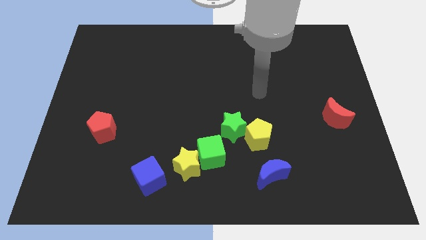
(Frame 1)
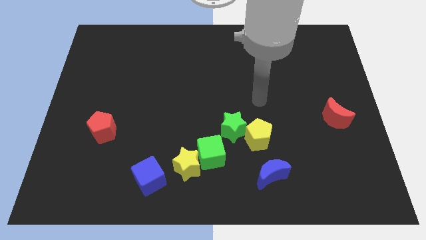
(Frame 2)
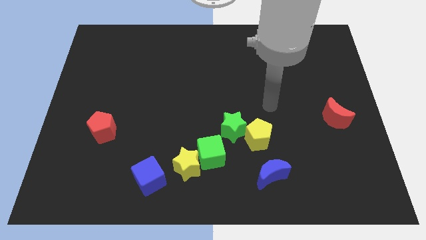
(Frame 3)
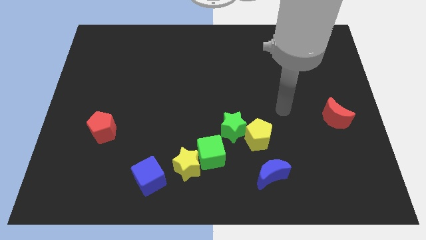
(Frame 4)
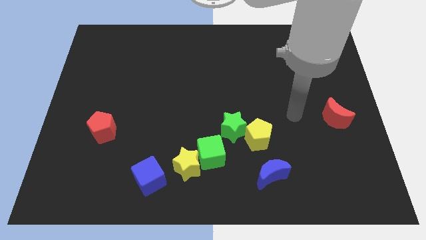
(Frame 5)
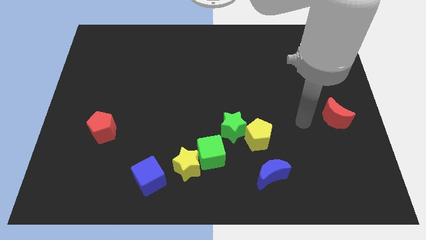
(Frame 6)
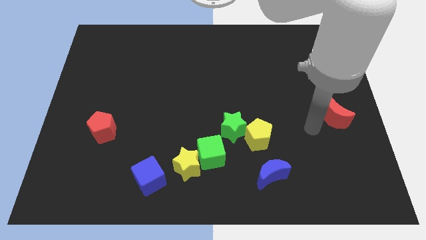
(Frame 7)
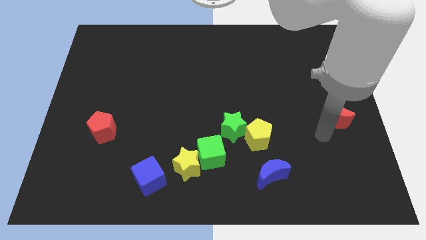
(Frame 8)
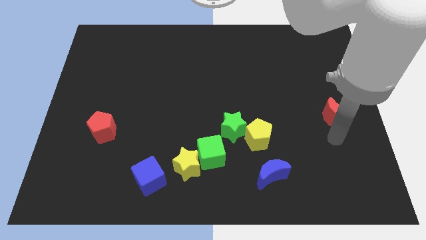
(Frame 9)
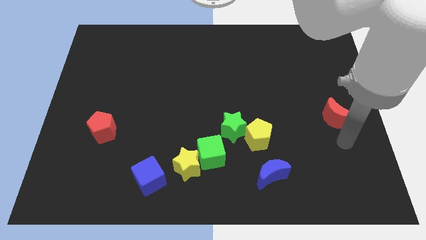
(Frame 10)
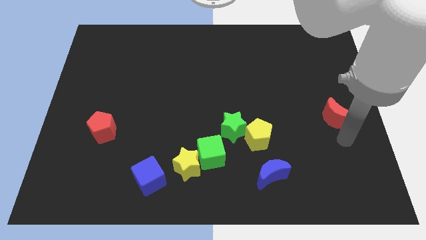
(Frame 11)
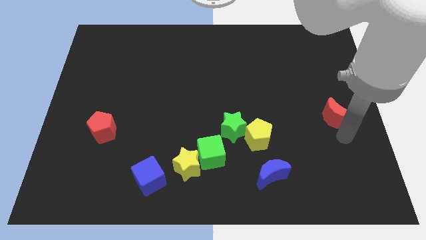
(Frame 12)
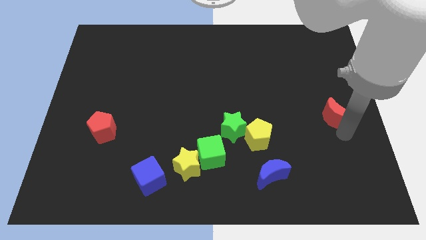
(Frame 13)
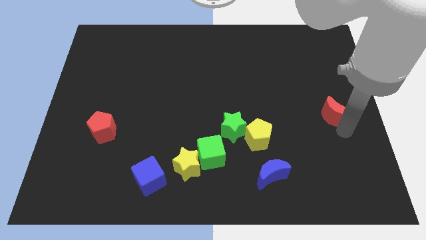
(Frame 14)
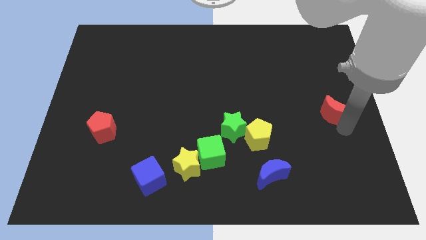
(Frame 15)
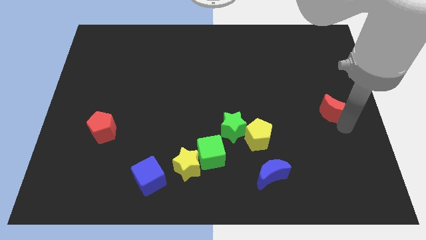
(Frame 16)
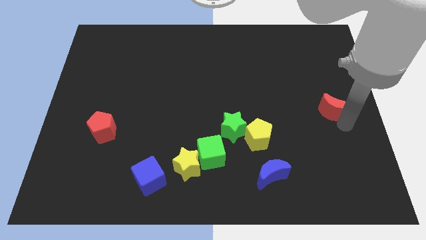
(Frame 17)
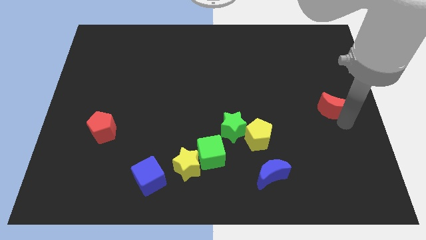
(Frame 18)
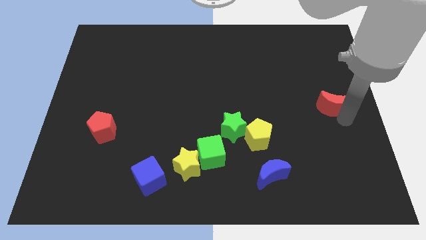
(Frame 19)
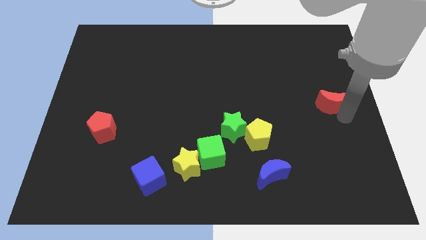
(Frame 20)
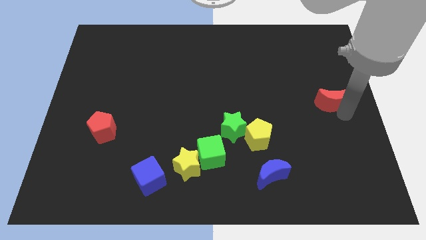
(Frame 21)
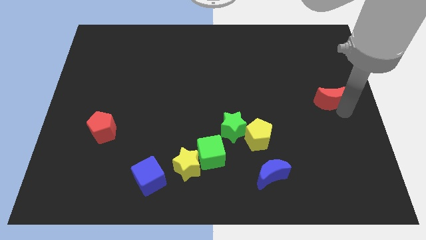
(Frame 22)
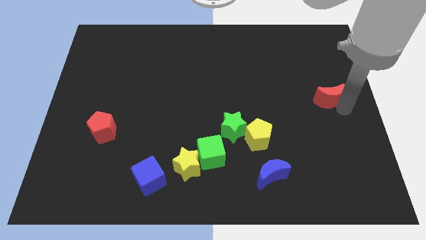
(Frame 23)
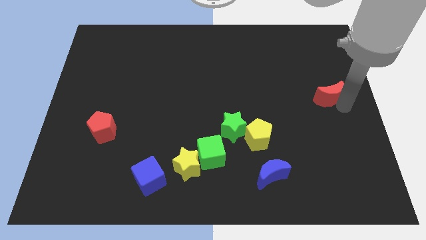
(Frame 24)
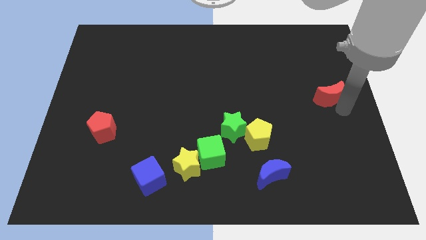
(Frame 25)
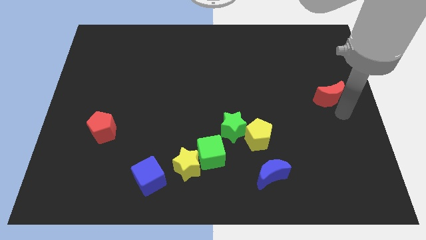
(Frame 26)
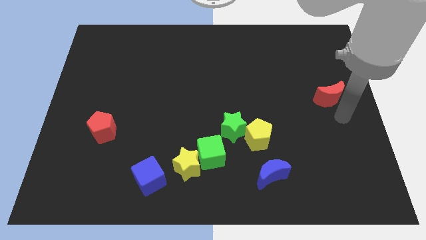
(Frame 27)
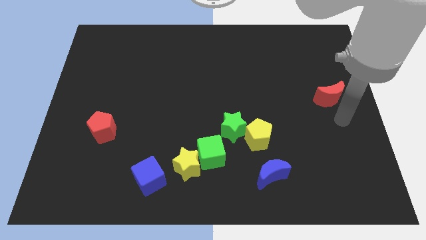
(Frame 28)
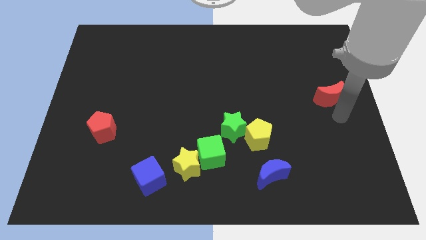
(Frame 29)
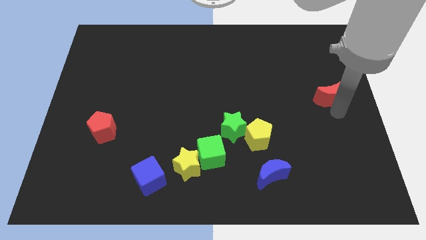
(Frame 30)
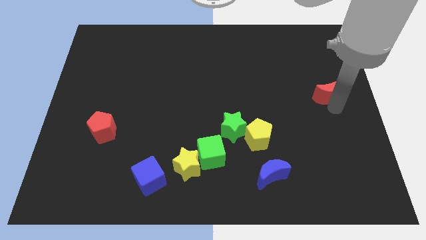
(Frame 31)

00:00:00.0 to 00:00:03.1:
slightly move the red moon up

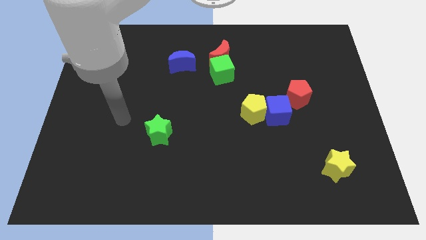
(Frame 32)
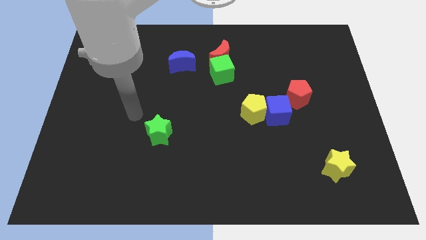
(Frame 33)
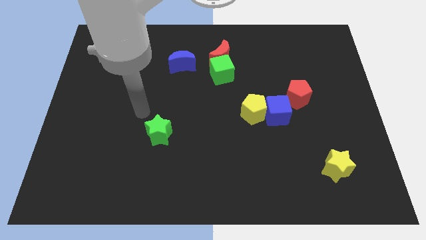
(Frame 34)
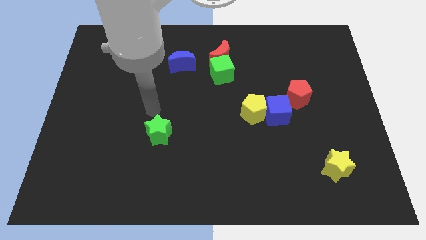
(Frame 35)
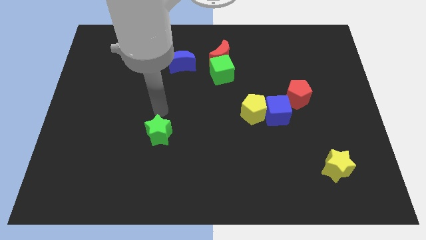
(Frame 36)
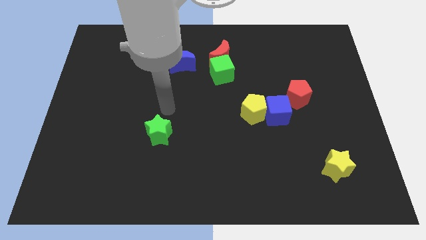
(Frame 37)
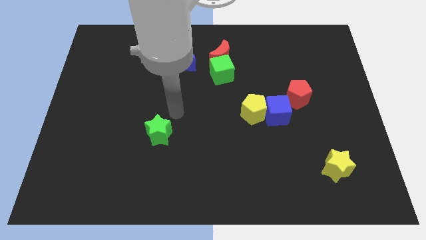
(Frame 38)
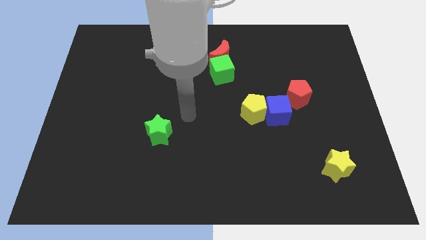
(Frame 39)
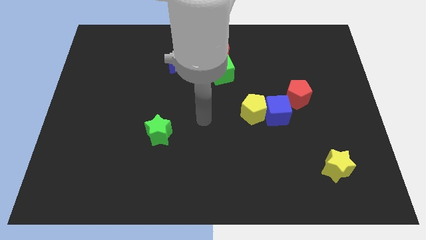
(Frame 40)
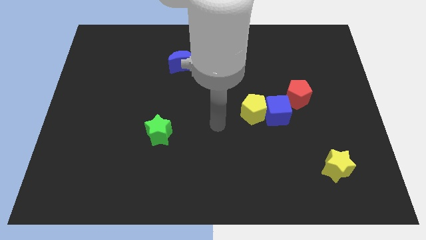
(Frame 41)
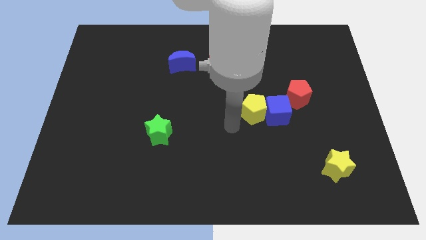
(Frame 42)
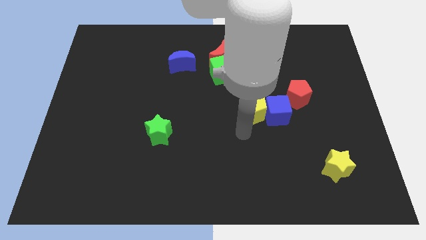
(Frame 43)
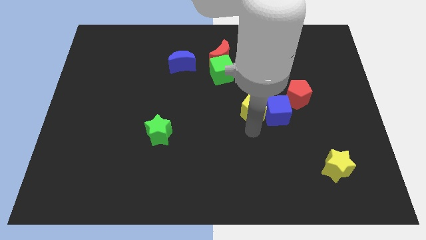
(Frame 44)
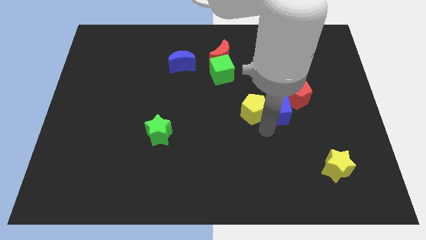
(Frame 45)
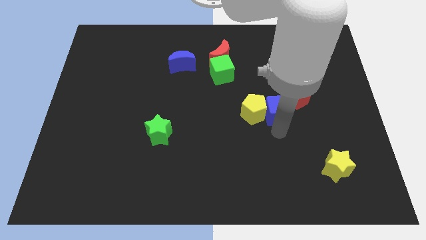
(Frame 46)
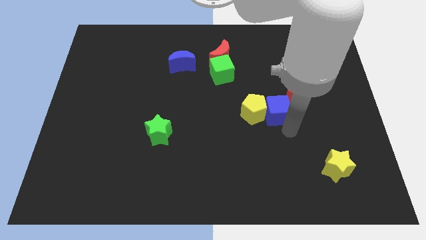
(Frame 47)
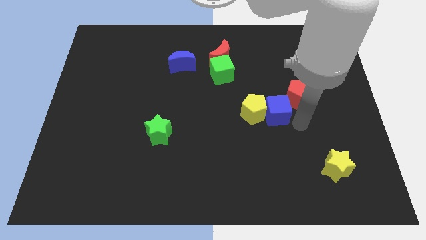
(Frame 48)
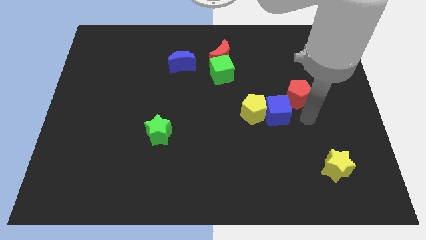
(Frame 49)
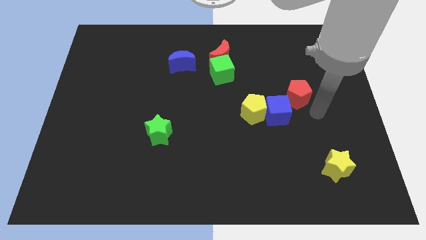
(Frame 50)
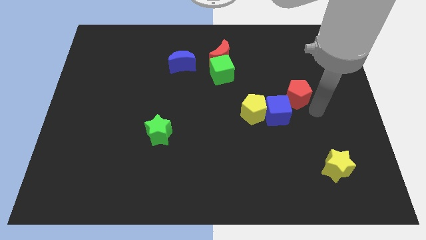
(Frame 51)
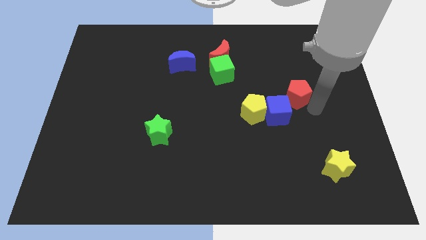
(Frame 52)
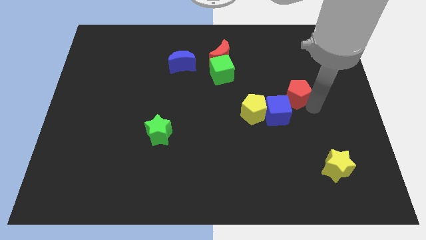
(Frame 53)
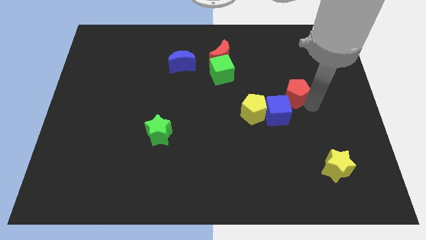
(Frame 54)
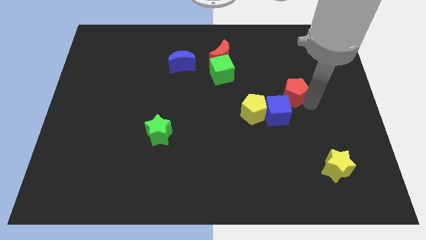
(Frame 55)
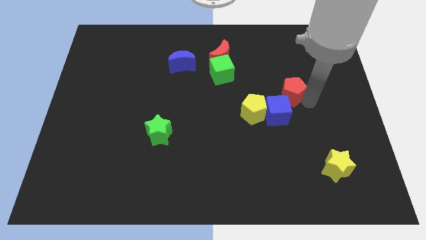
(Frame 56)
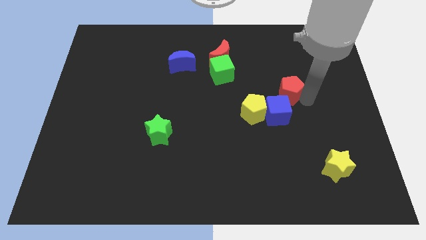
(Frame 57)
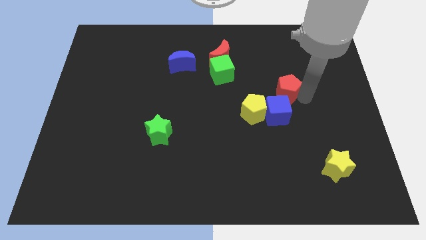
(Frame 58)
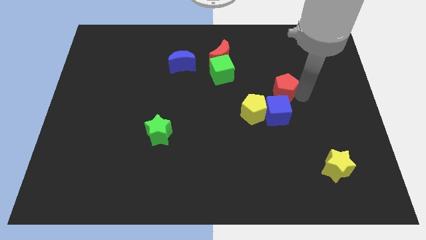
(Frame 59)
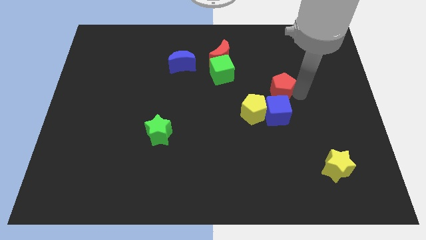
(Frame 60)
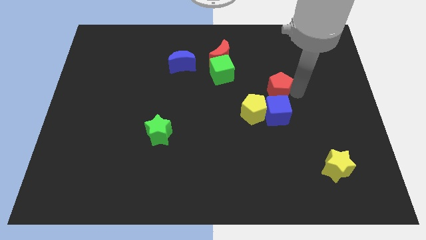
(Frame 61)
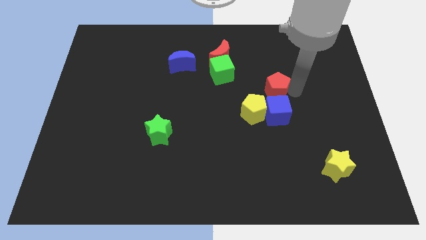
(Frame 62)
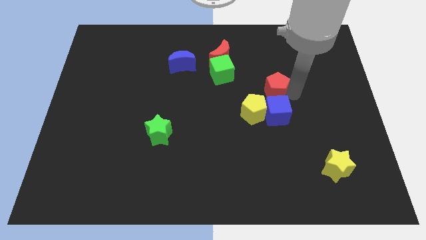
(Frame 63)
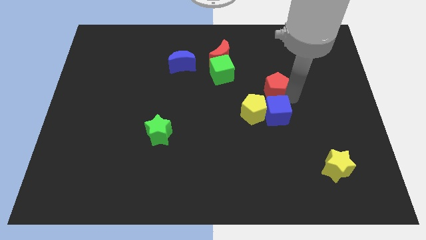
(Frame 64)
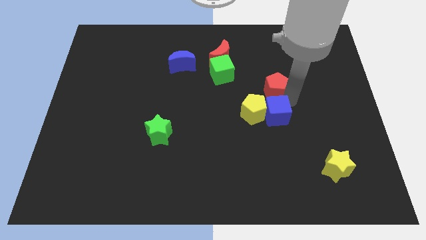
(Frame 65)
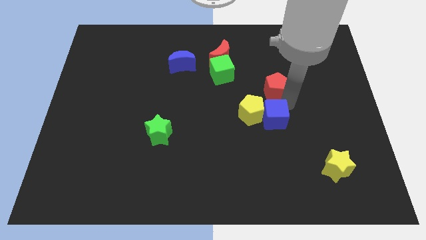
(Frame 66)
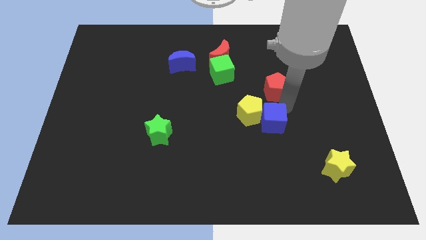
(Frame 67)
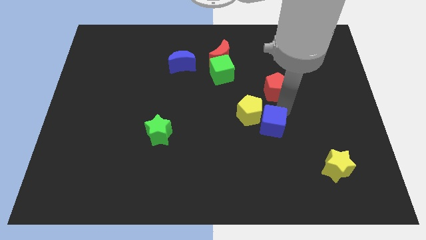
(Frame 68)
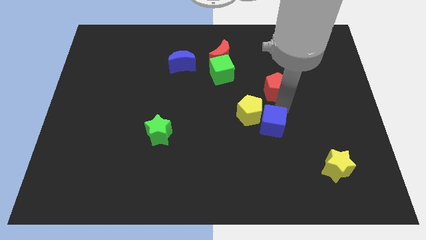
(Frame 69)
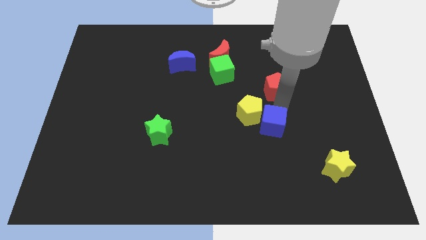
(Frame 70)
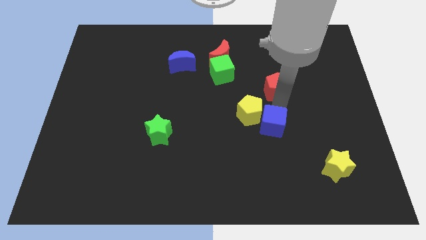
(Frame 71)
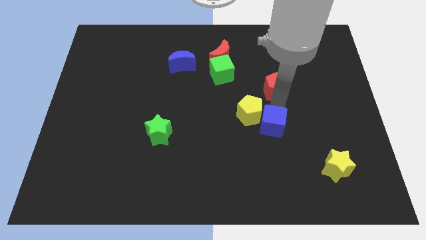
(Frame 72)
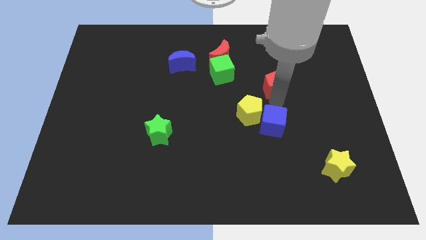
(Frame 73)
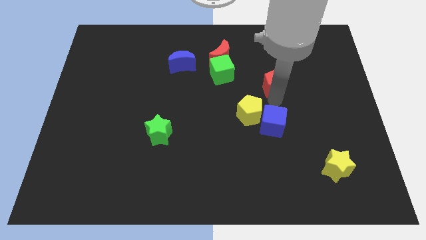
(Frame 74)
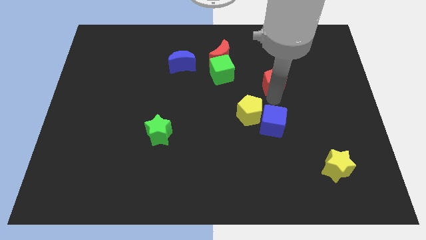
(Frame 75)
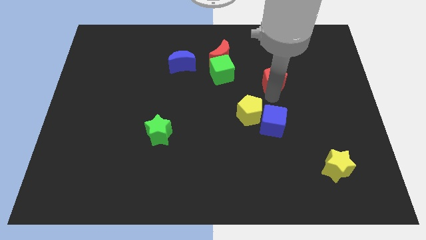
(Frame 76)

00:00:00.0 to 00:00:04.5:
push the red pentagon up and then to the left slightly

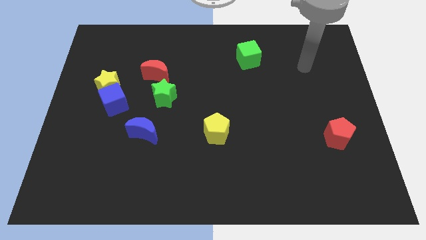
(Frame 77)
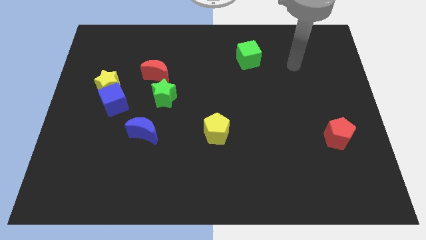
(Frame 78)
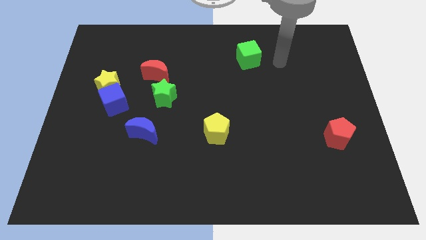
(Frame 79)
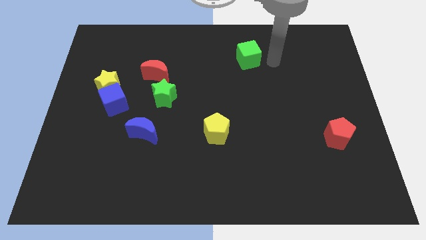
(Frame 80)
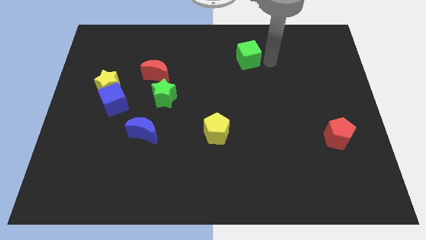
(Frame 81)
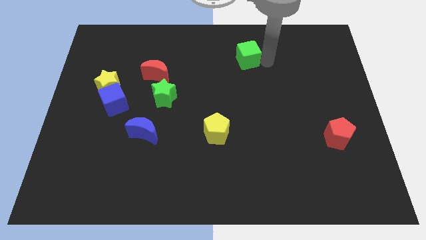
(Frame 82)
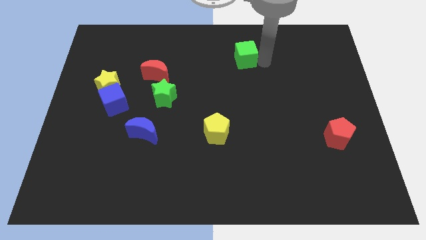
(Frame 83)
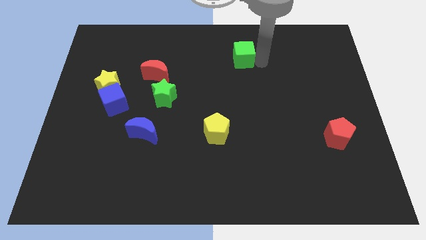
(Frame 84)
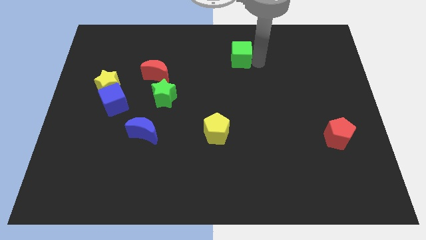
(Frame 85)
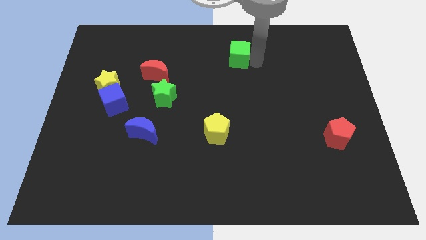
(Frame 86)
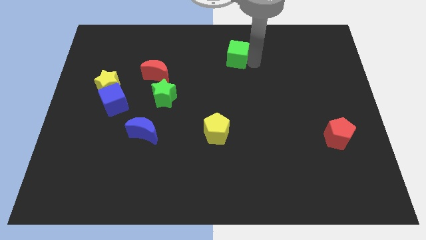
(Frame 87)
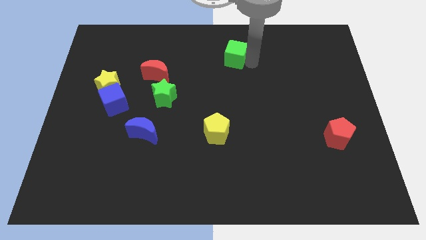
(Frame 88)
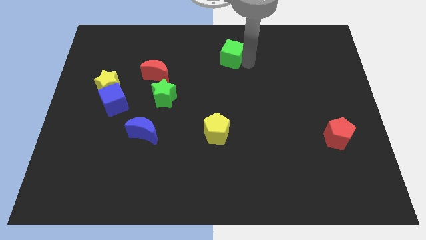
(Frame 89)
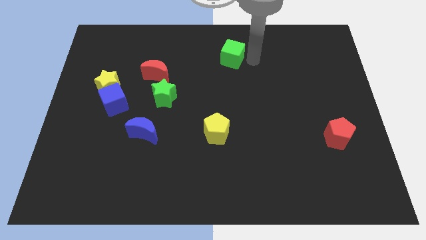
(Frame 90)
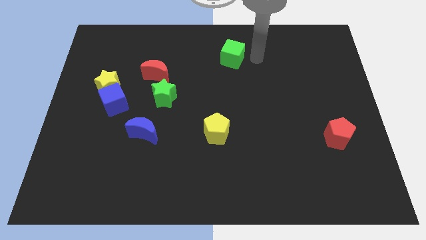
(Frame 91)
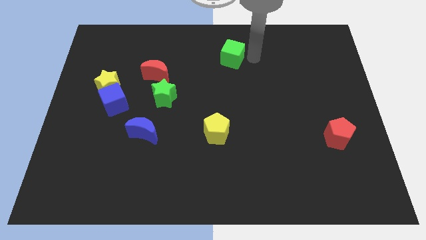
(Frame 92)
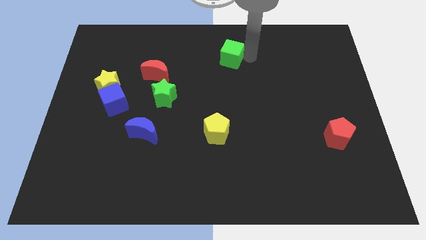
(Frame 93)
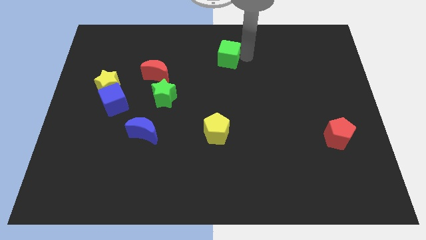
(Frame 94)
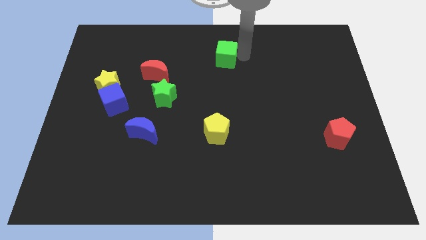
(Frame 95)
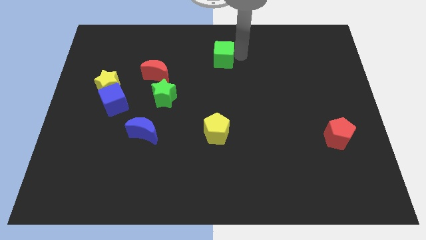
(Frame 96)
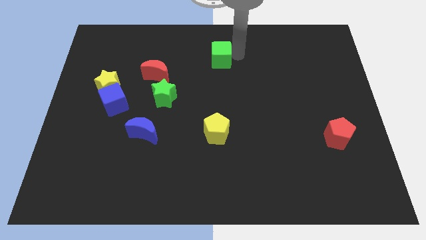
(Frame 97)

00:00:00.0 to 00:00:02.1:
move the green cube to the left somewhat
